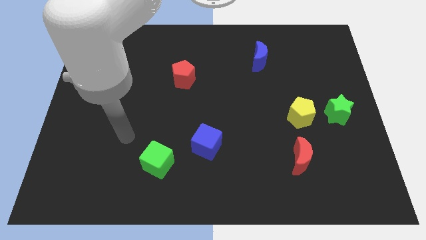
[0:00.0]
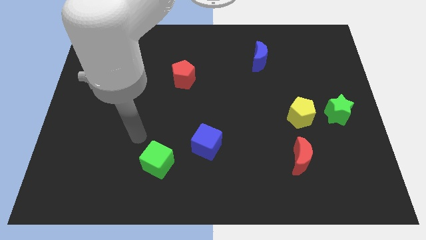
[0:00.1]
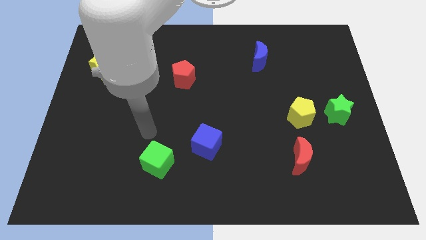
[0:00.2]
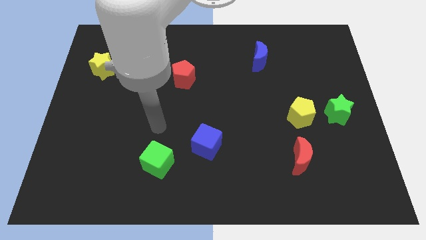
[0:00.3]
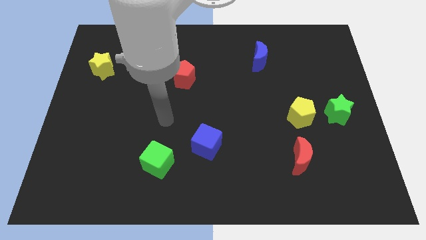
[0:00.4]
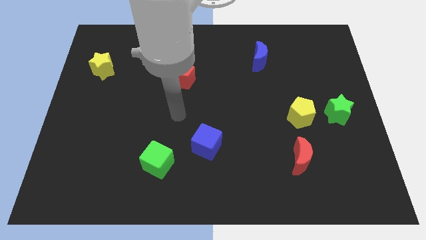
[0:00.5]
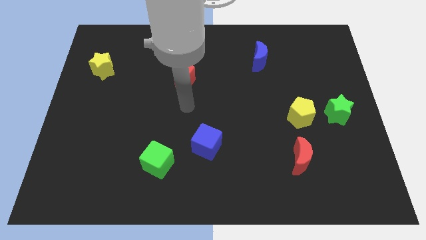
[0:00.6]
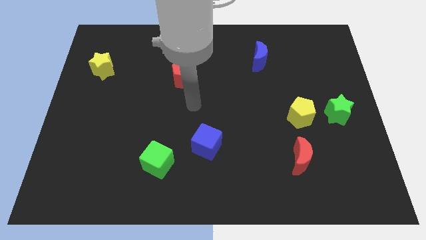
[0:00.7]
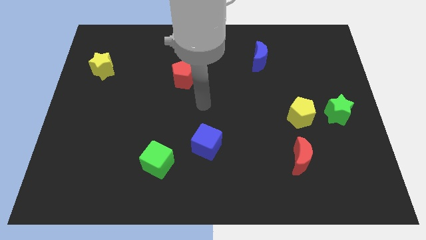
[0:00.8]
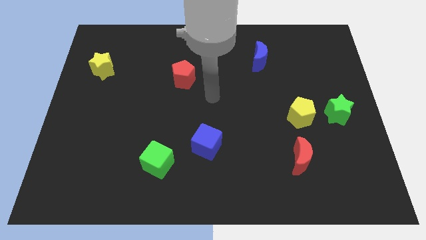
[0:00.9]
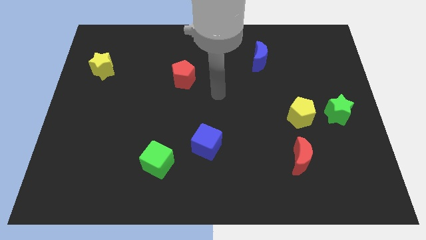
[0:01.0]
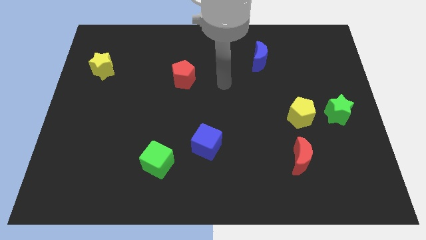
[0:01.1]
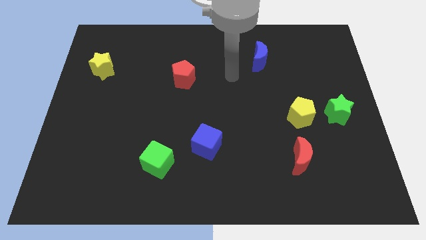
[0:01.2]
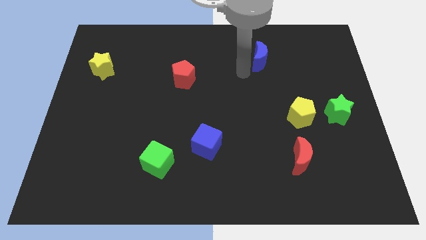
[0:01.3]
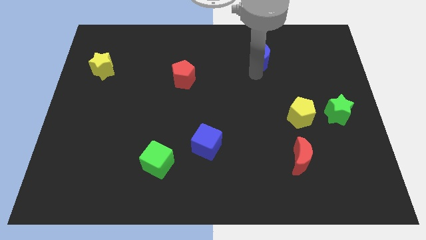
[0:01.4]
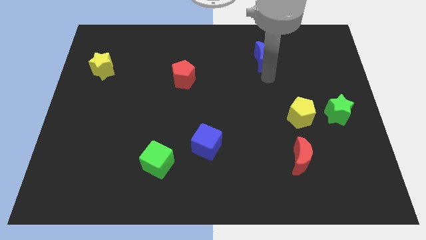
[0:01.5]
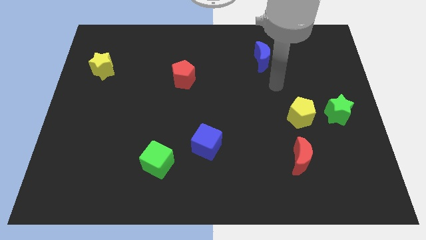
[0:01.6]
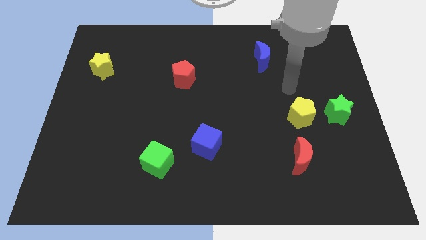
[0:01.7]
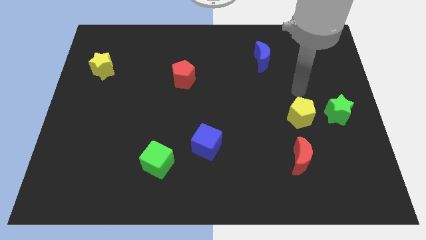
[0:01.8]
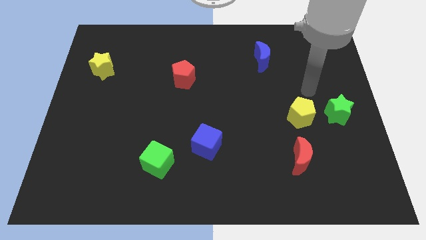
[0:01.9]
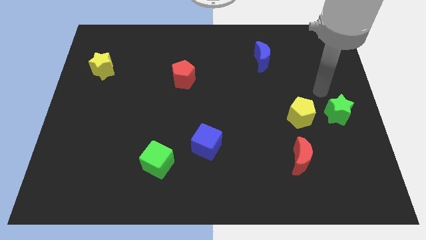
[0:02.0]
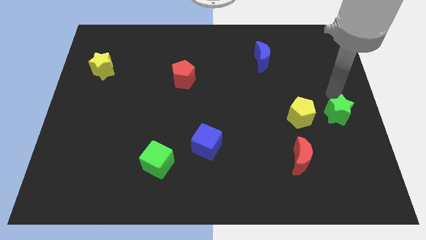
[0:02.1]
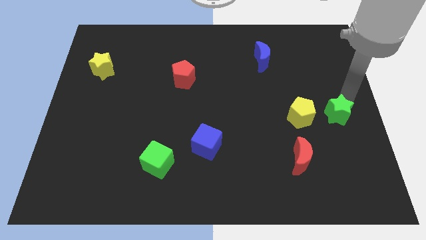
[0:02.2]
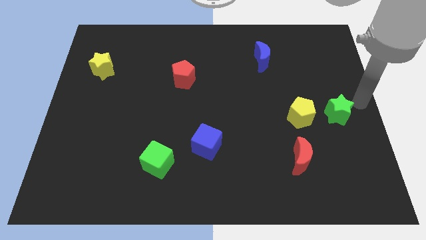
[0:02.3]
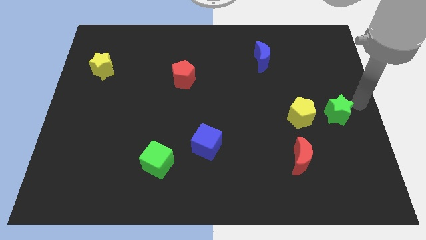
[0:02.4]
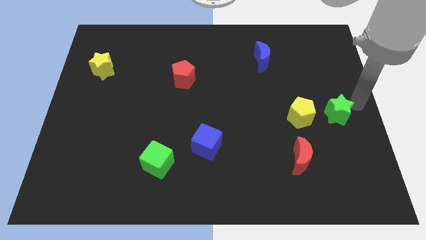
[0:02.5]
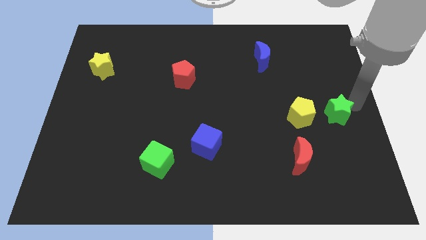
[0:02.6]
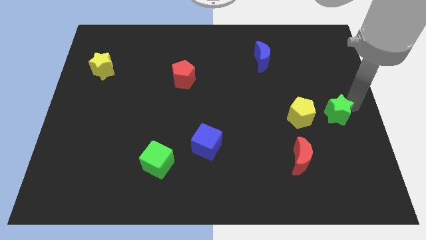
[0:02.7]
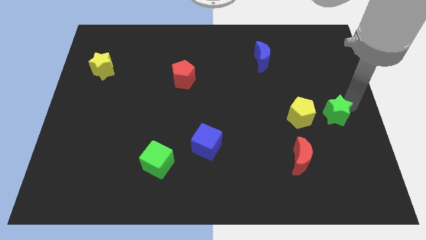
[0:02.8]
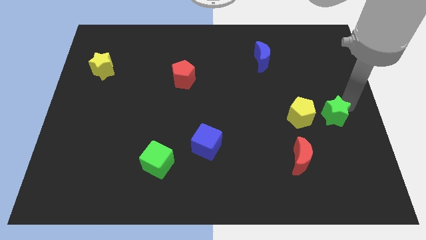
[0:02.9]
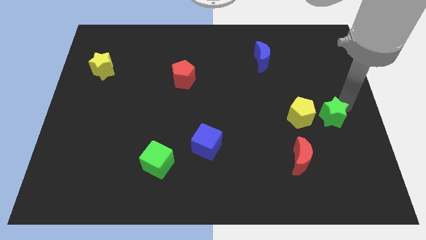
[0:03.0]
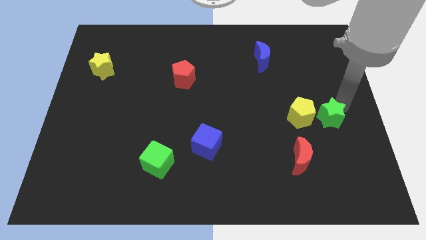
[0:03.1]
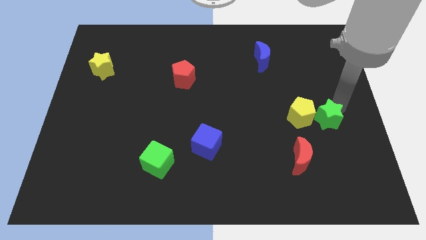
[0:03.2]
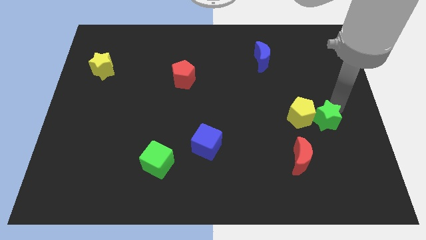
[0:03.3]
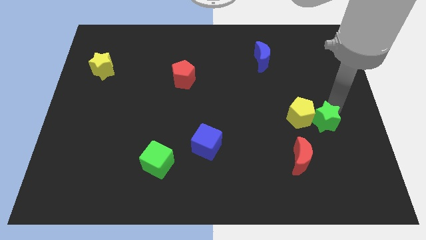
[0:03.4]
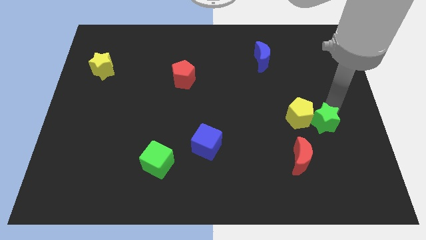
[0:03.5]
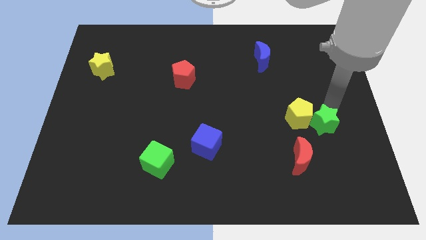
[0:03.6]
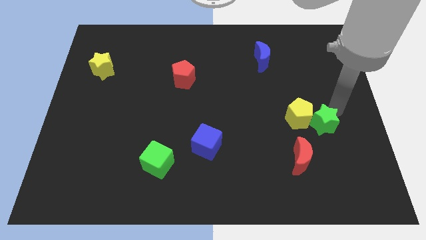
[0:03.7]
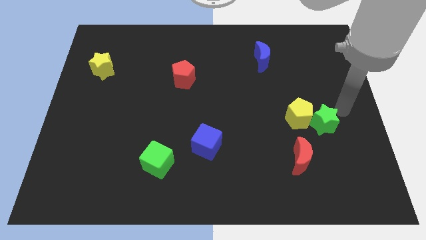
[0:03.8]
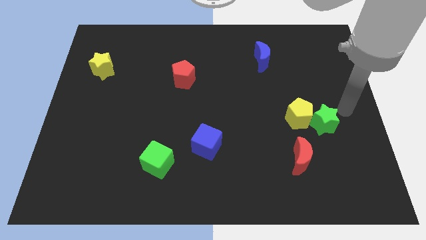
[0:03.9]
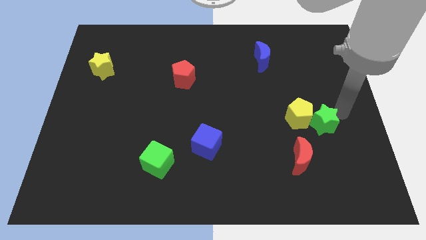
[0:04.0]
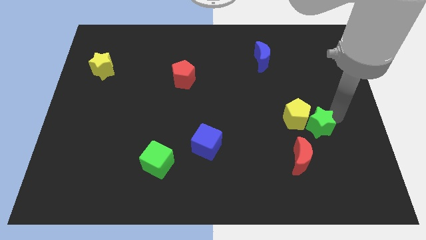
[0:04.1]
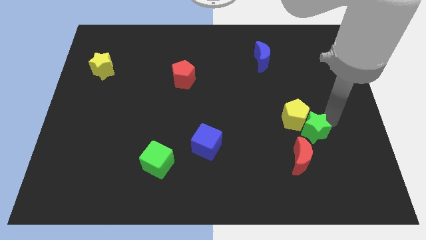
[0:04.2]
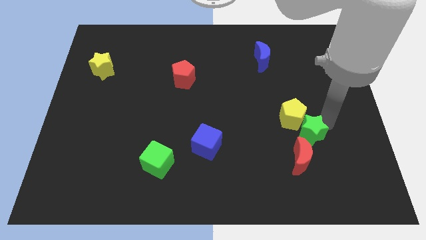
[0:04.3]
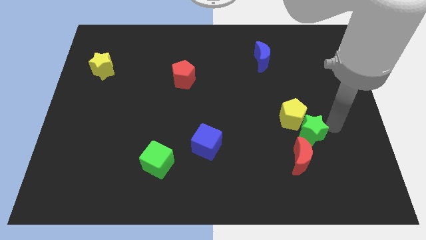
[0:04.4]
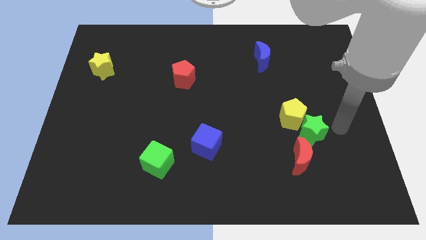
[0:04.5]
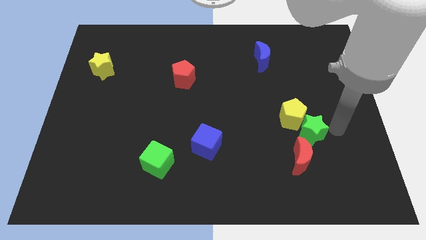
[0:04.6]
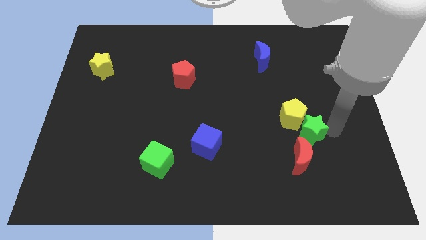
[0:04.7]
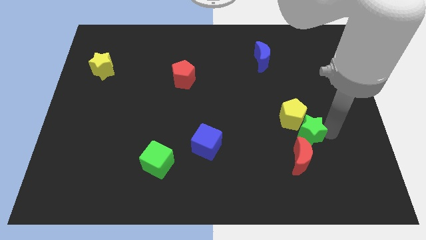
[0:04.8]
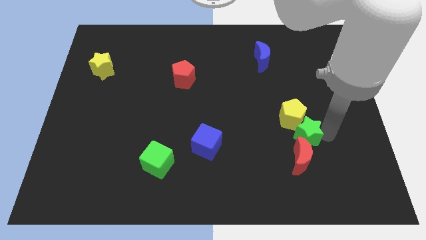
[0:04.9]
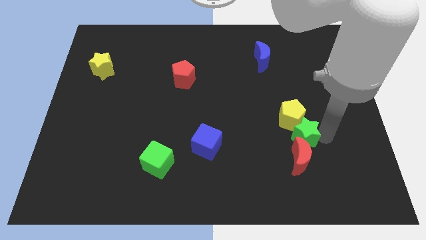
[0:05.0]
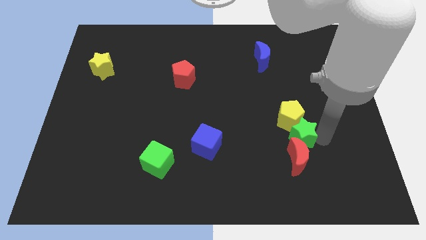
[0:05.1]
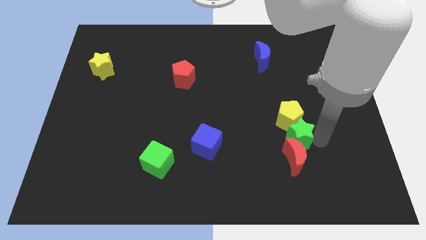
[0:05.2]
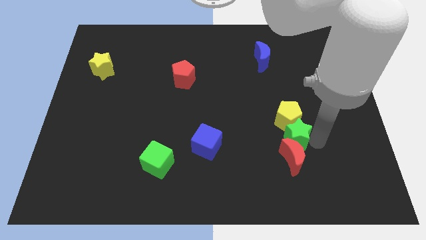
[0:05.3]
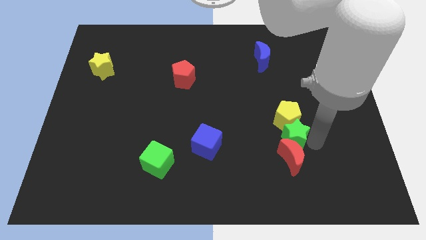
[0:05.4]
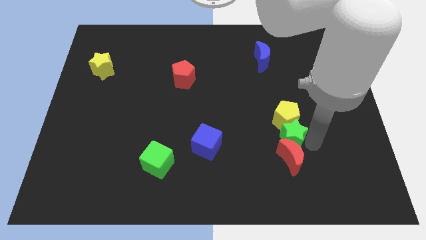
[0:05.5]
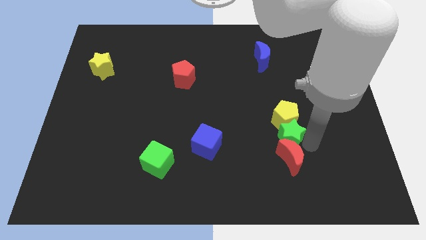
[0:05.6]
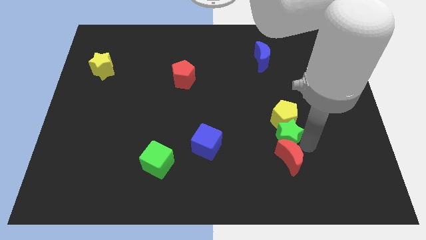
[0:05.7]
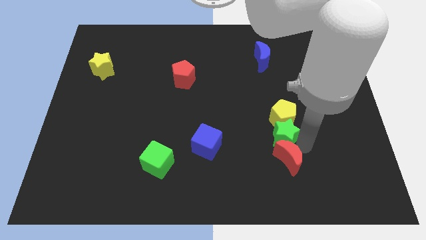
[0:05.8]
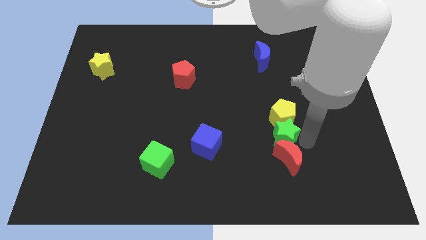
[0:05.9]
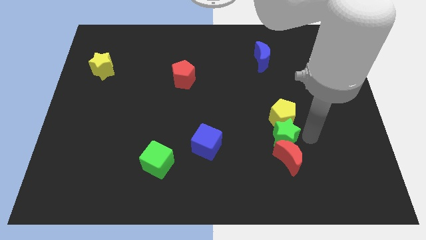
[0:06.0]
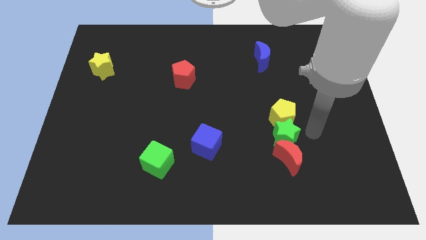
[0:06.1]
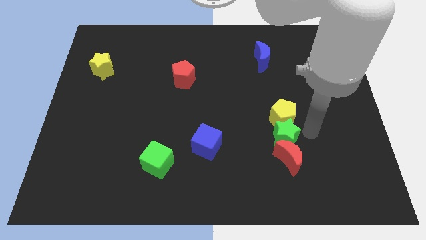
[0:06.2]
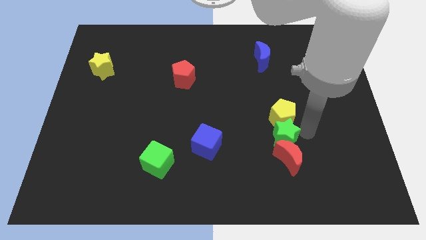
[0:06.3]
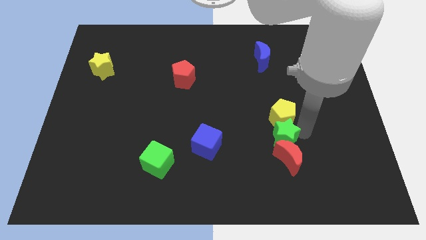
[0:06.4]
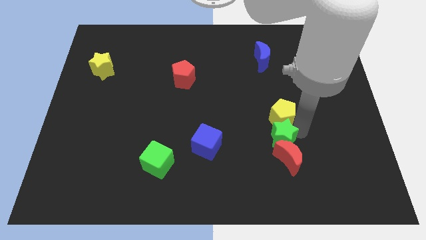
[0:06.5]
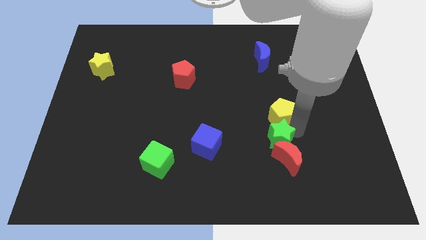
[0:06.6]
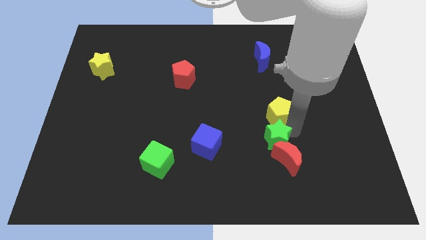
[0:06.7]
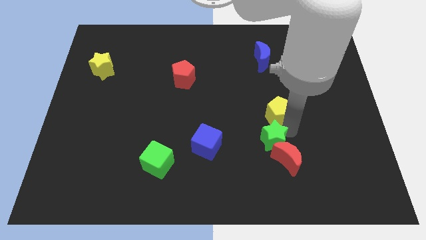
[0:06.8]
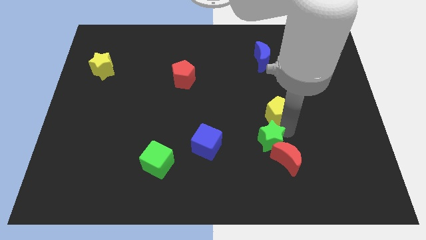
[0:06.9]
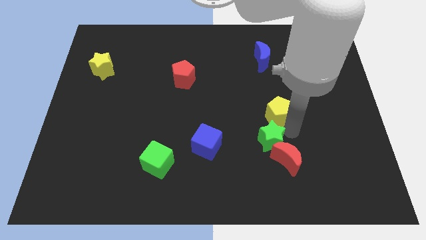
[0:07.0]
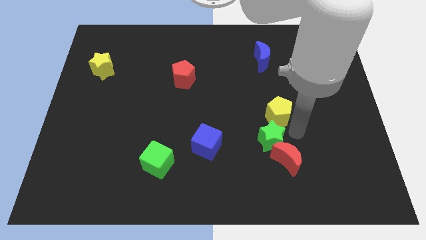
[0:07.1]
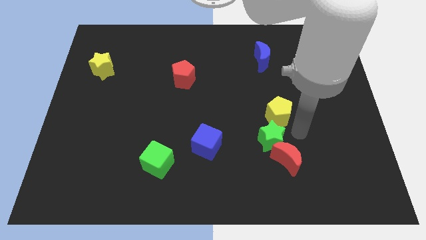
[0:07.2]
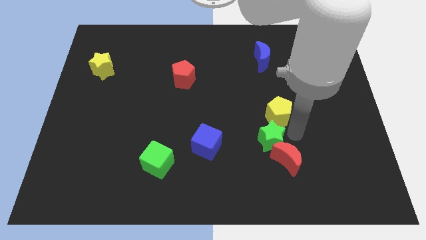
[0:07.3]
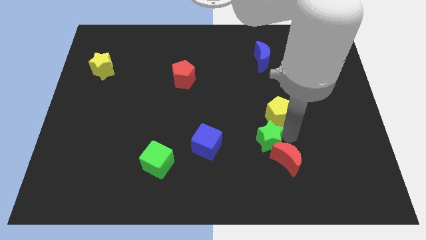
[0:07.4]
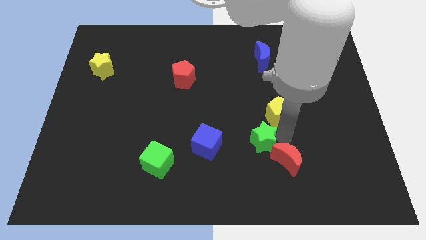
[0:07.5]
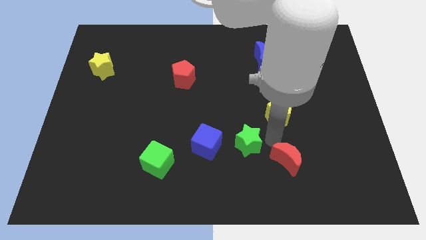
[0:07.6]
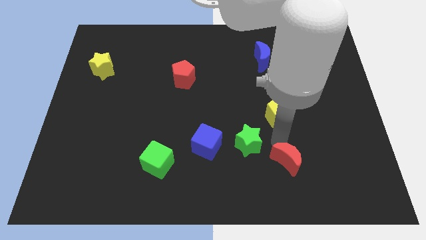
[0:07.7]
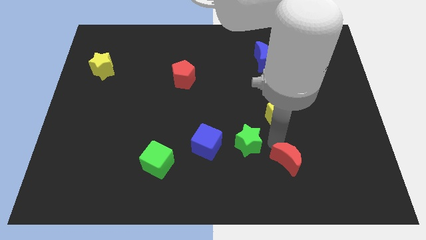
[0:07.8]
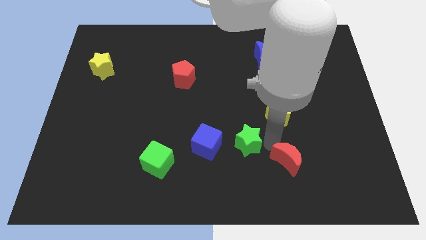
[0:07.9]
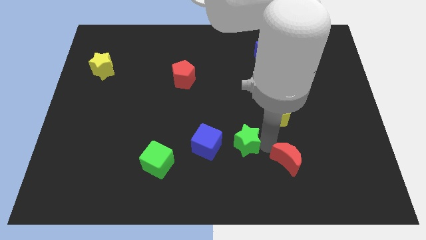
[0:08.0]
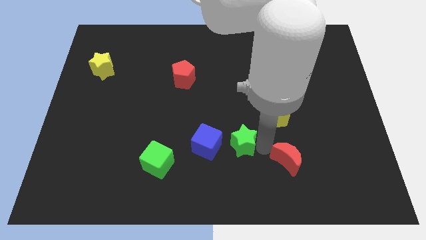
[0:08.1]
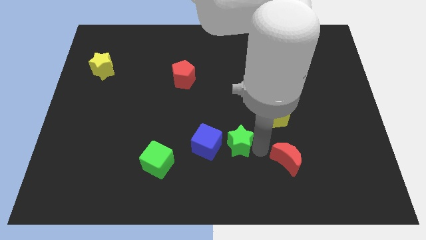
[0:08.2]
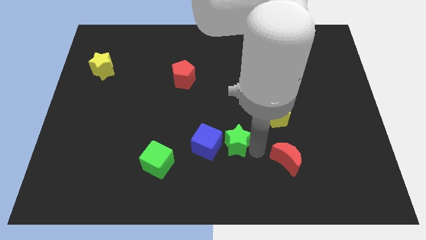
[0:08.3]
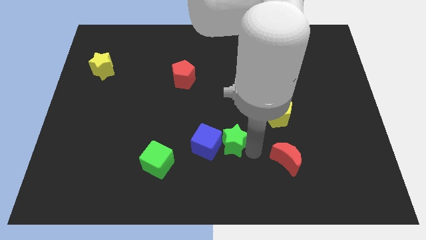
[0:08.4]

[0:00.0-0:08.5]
put the green star towards the blue cube
